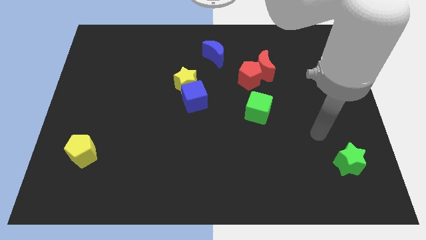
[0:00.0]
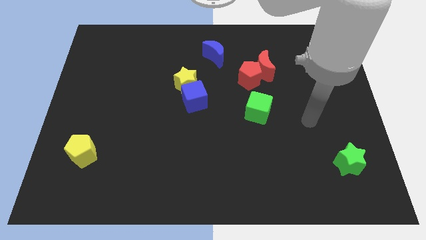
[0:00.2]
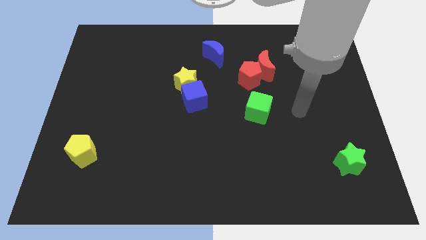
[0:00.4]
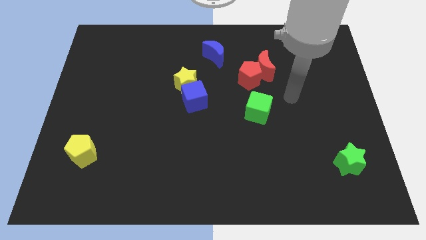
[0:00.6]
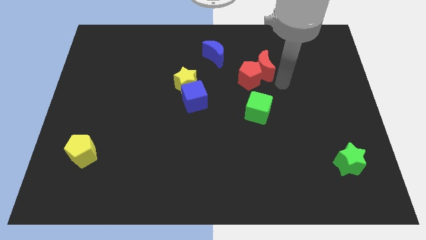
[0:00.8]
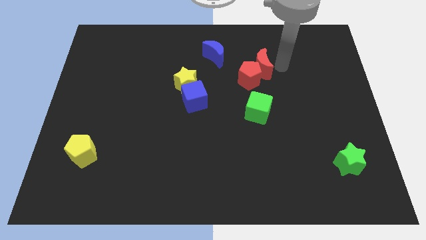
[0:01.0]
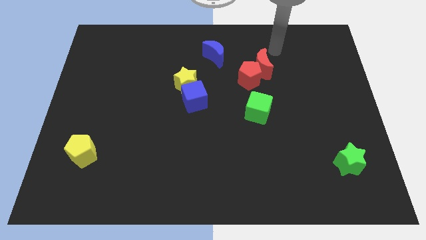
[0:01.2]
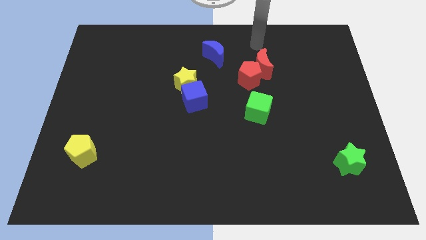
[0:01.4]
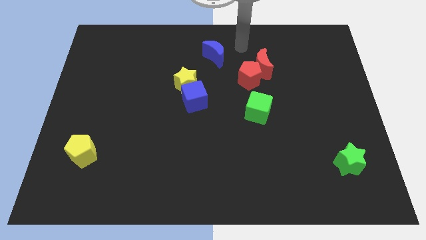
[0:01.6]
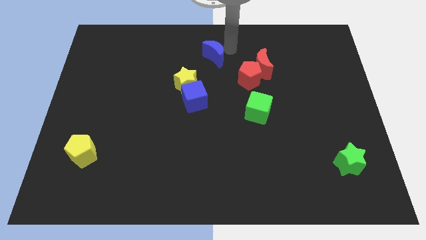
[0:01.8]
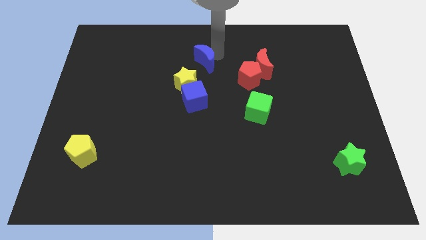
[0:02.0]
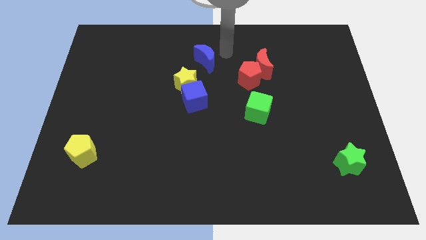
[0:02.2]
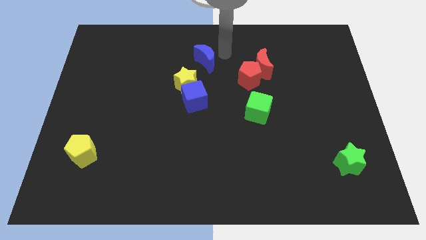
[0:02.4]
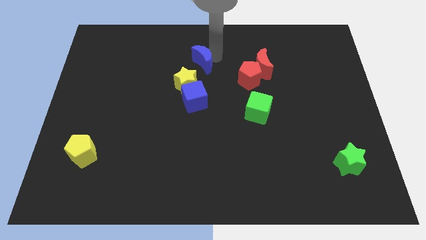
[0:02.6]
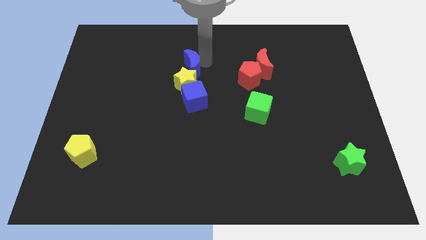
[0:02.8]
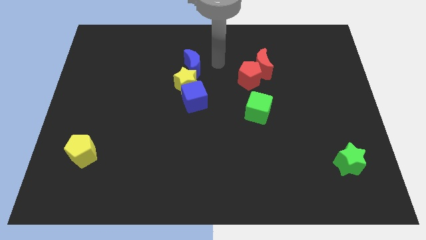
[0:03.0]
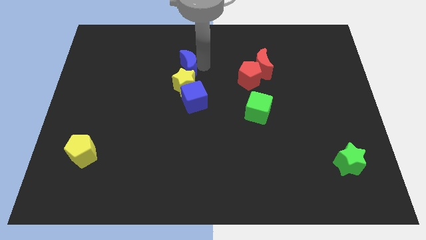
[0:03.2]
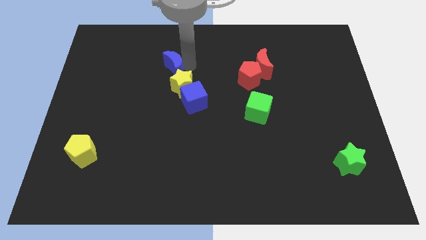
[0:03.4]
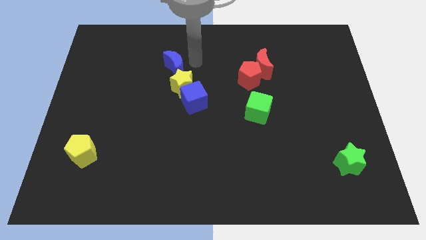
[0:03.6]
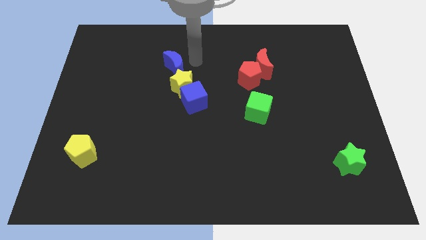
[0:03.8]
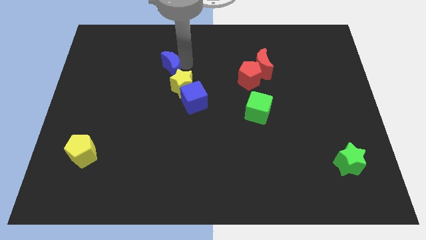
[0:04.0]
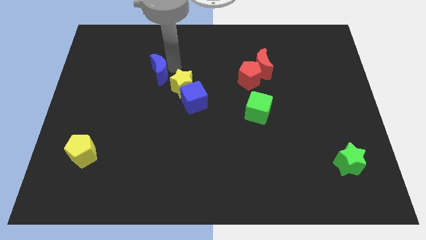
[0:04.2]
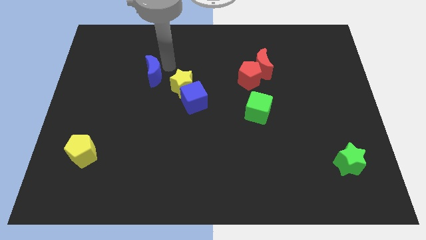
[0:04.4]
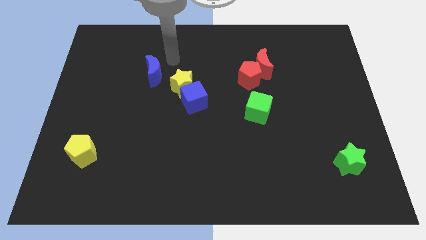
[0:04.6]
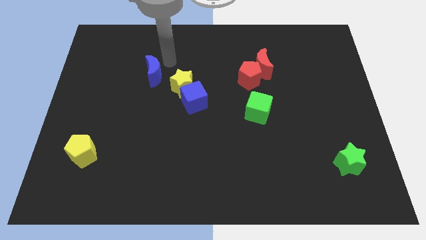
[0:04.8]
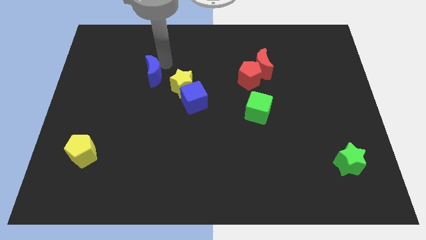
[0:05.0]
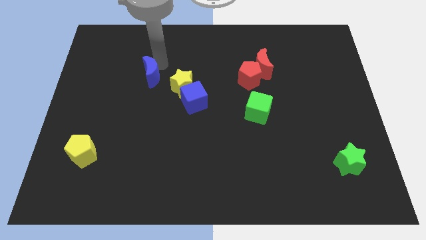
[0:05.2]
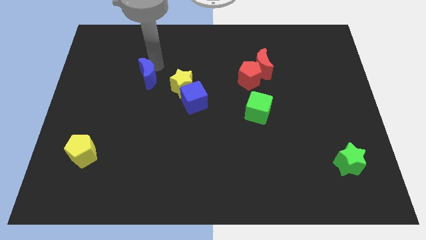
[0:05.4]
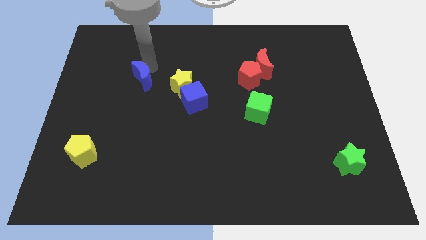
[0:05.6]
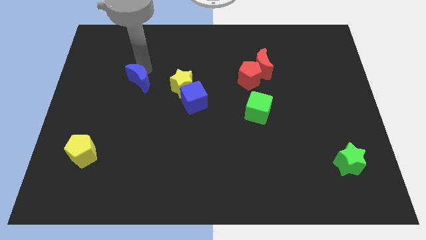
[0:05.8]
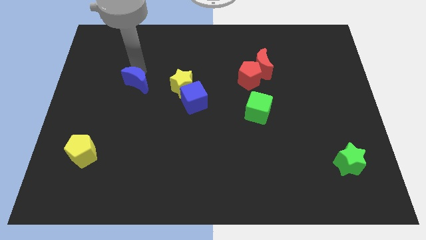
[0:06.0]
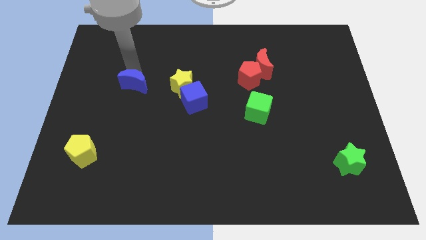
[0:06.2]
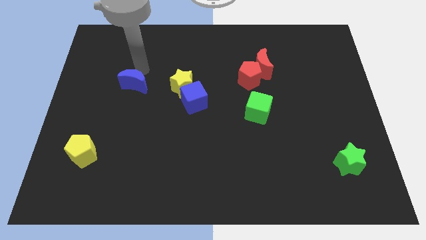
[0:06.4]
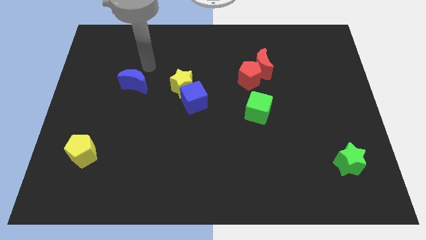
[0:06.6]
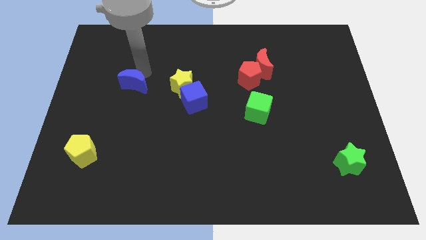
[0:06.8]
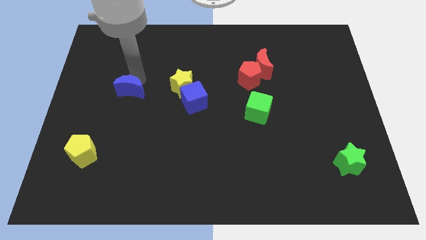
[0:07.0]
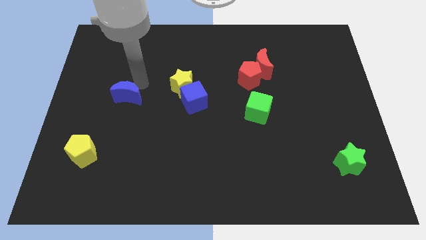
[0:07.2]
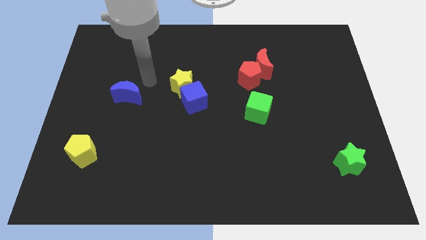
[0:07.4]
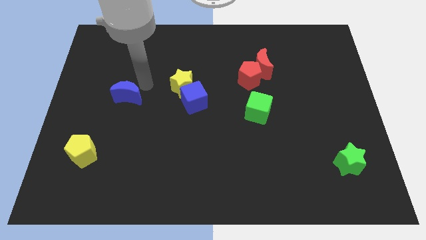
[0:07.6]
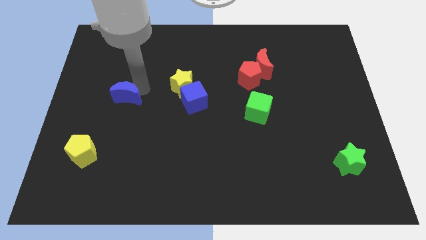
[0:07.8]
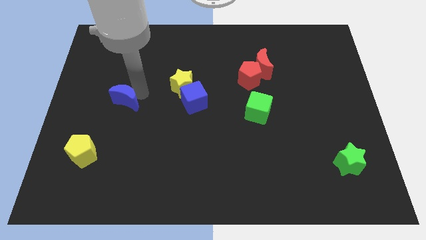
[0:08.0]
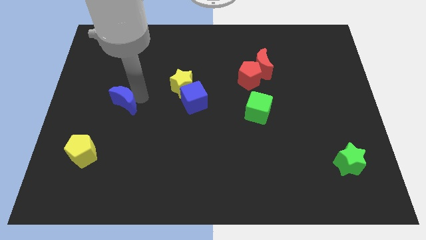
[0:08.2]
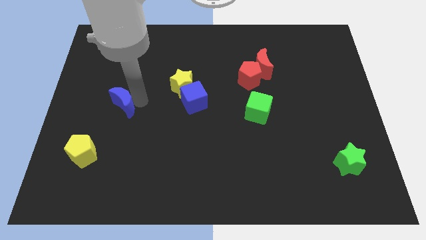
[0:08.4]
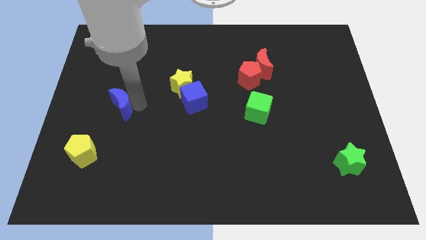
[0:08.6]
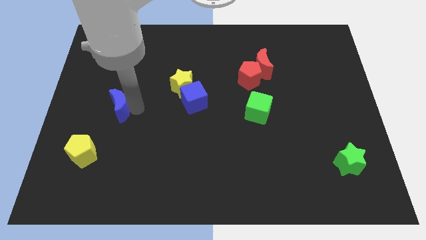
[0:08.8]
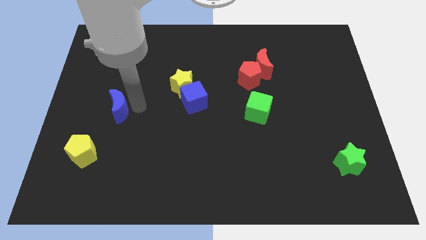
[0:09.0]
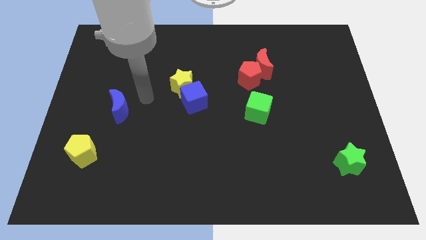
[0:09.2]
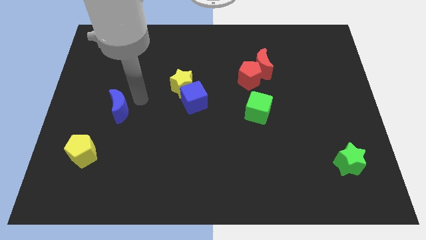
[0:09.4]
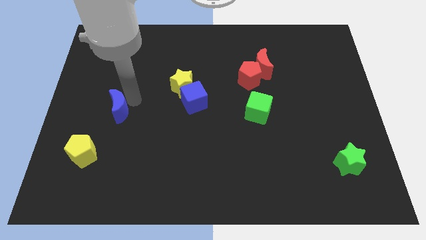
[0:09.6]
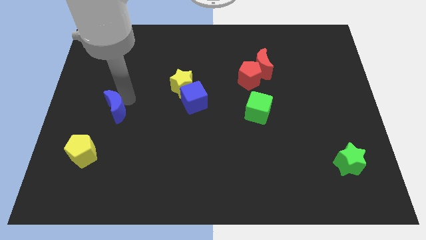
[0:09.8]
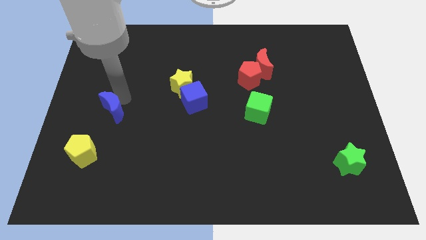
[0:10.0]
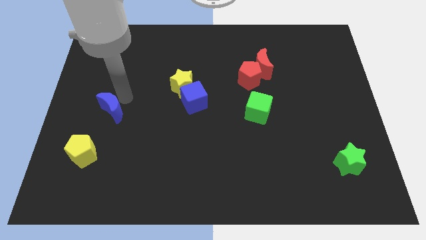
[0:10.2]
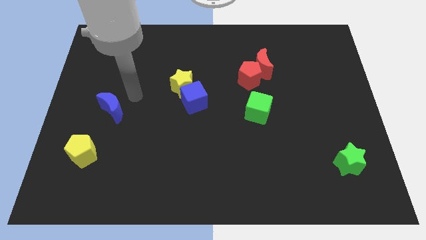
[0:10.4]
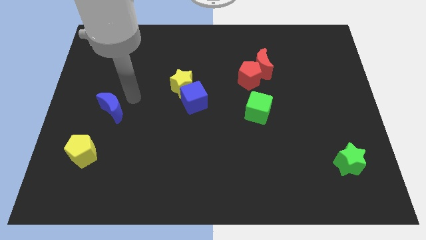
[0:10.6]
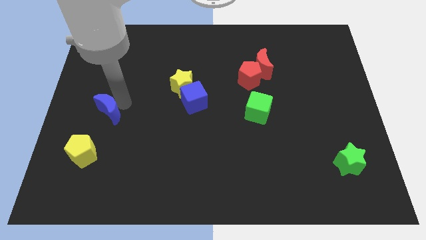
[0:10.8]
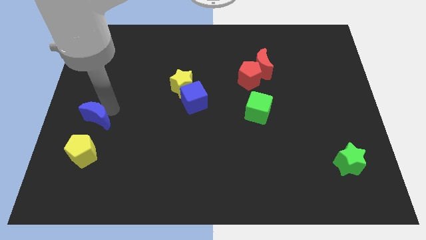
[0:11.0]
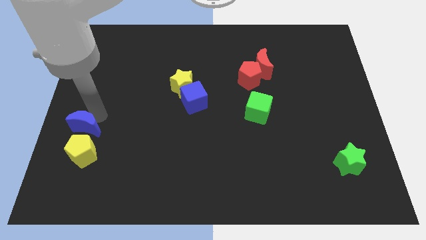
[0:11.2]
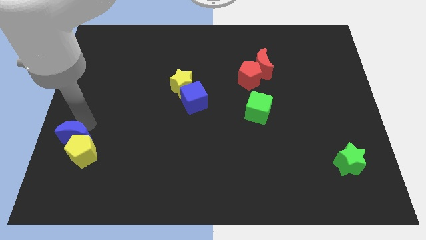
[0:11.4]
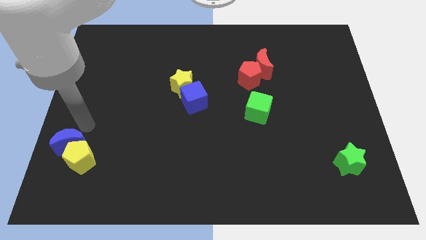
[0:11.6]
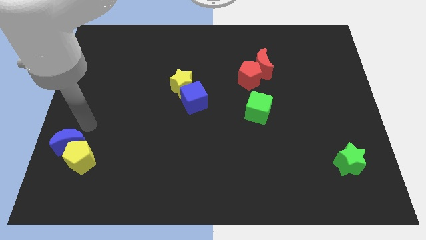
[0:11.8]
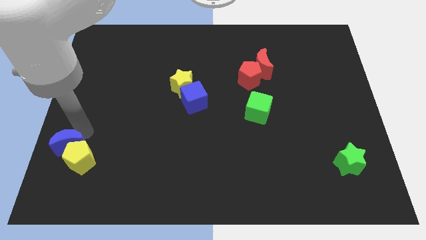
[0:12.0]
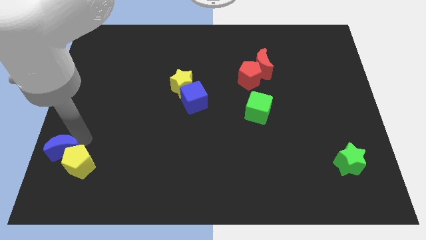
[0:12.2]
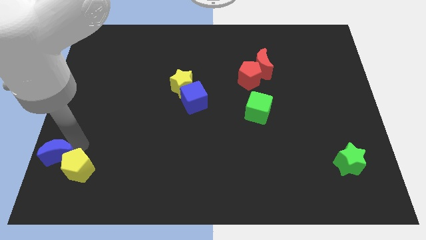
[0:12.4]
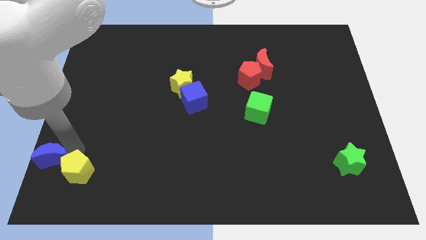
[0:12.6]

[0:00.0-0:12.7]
put the blue moon to the bottom left corner

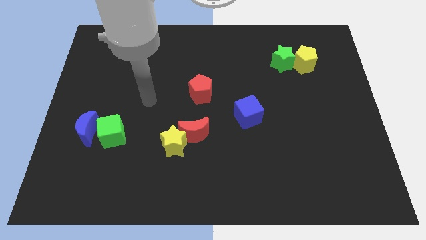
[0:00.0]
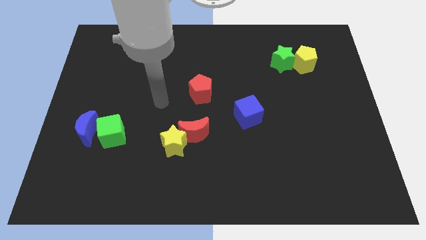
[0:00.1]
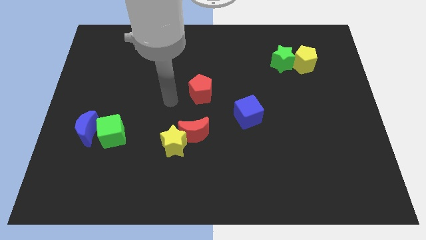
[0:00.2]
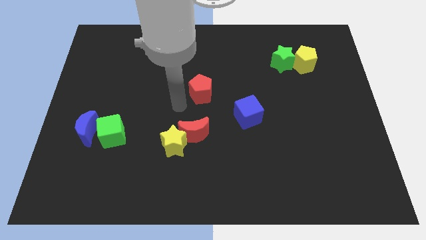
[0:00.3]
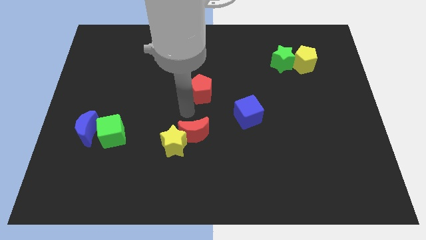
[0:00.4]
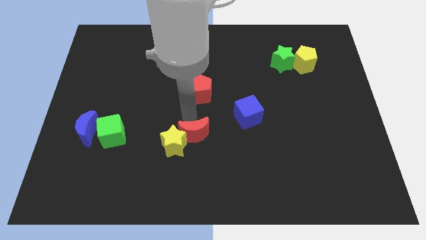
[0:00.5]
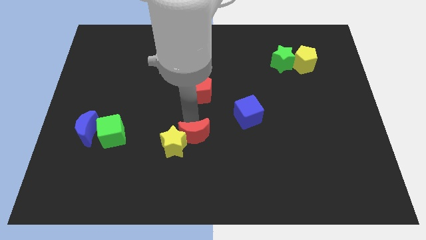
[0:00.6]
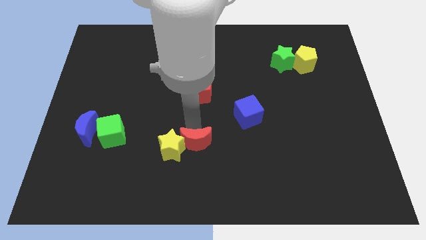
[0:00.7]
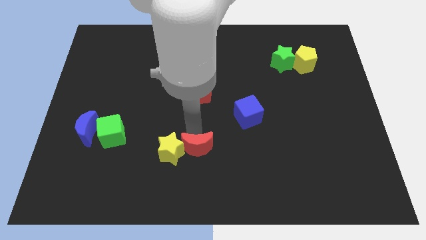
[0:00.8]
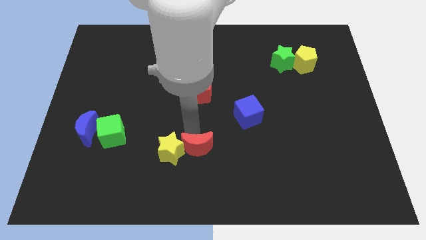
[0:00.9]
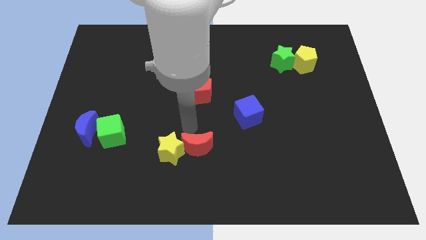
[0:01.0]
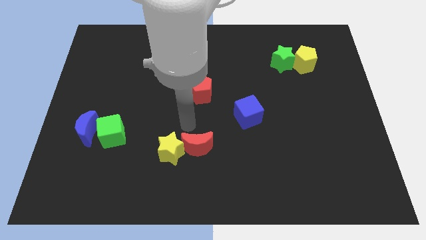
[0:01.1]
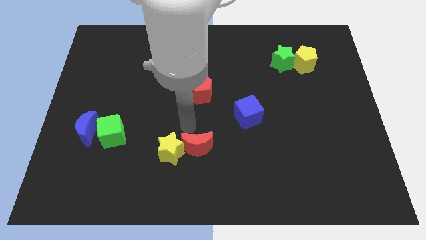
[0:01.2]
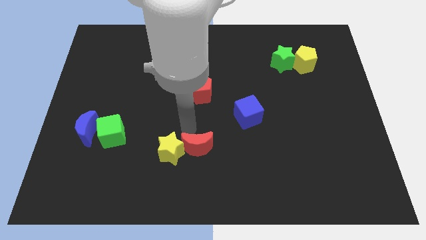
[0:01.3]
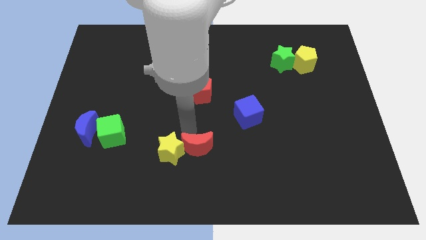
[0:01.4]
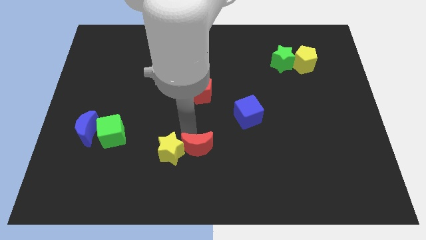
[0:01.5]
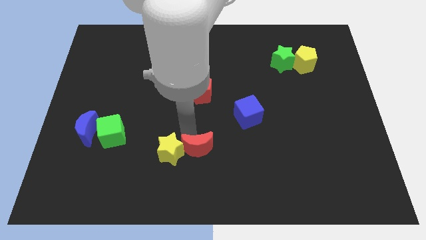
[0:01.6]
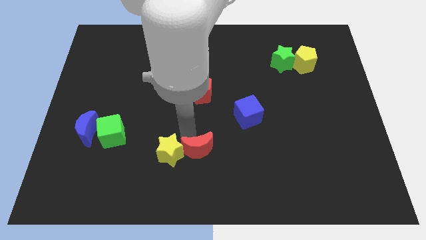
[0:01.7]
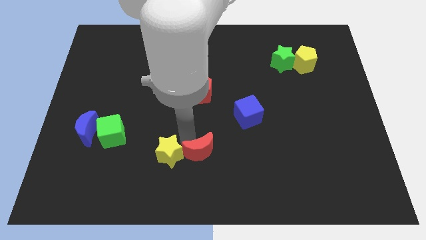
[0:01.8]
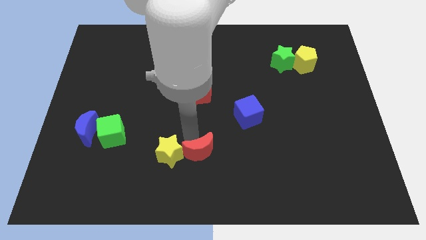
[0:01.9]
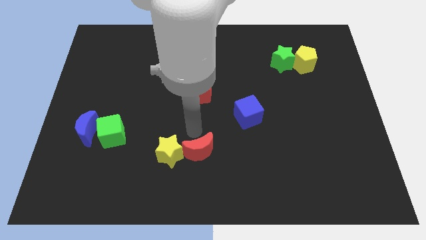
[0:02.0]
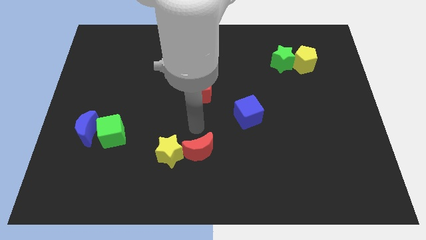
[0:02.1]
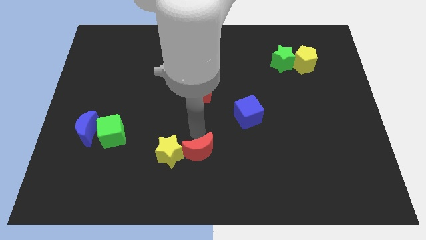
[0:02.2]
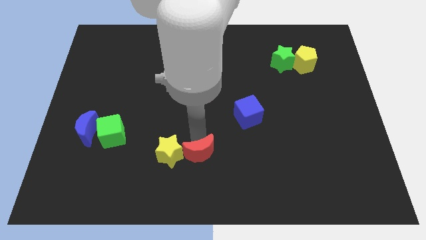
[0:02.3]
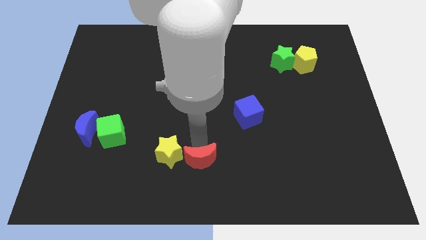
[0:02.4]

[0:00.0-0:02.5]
push the red moon to the bottom
